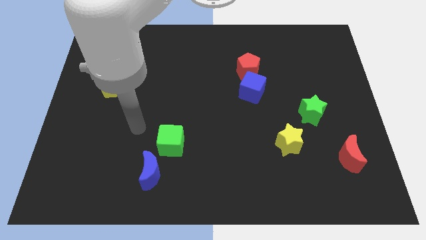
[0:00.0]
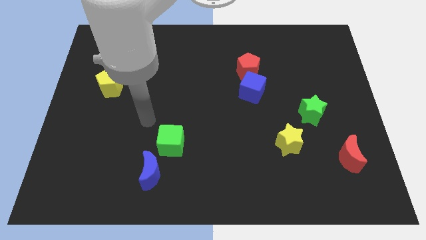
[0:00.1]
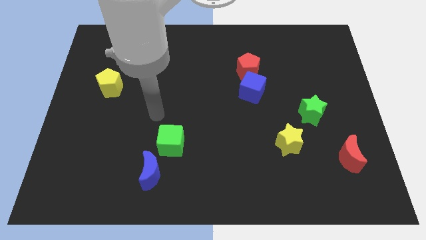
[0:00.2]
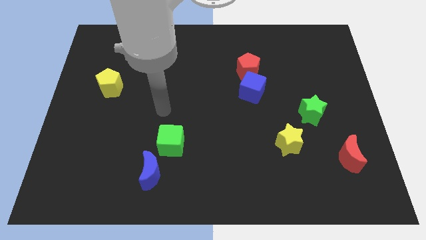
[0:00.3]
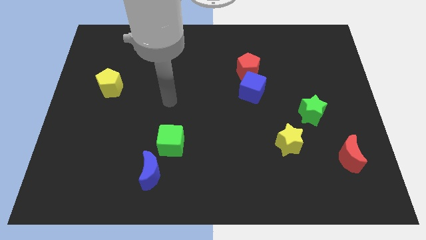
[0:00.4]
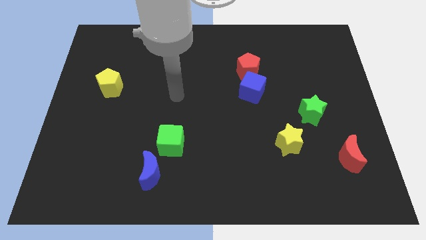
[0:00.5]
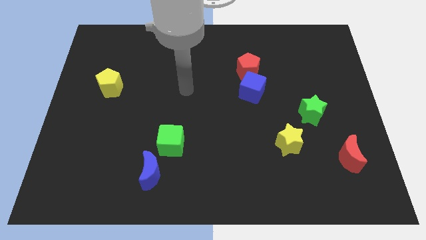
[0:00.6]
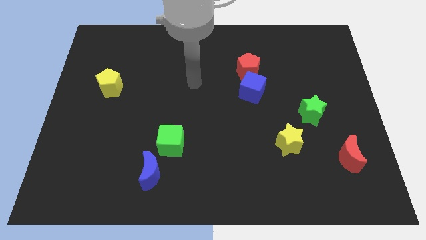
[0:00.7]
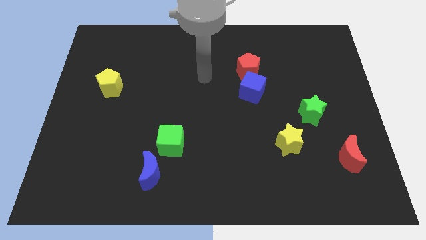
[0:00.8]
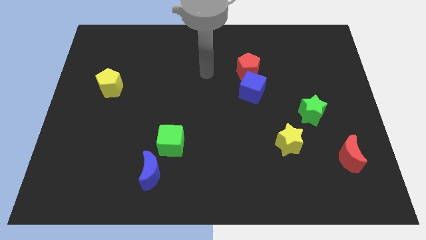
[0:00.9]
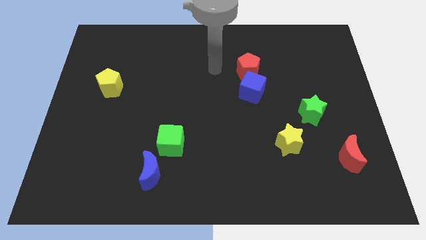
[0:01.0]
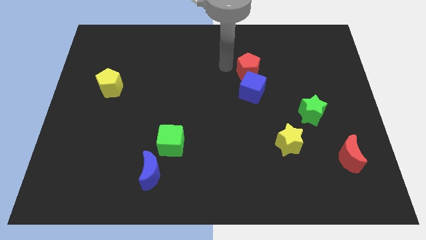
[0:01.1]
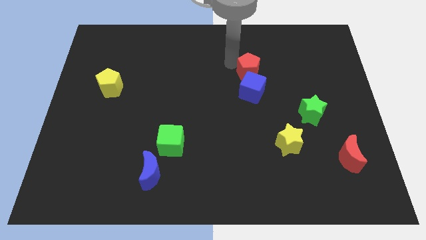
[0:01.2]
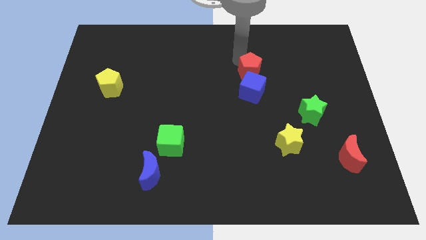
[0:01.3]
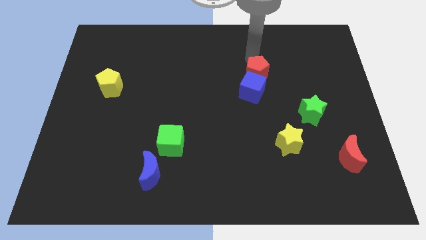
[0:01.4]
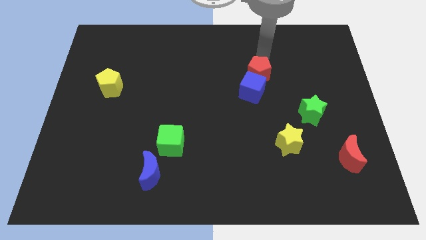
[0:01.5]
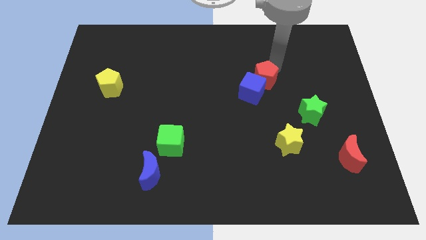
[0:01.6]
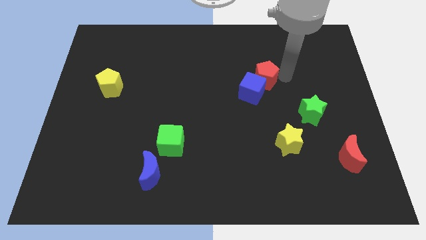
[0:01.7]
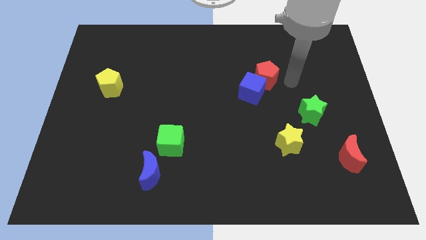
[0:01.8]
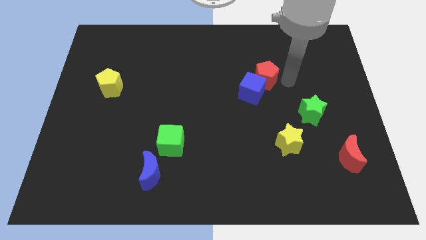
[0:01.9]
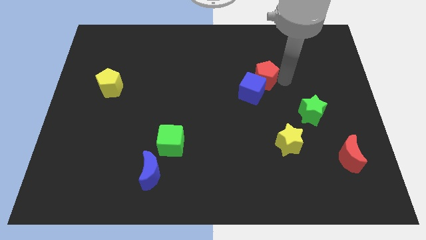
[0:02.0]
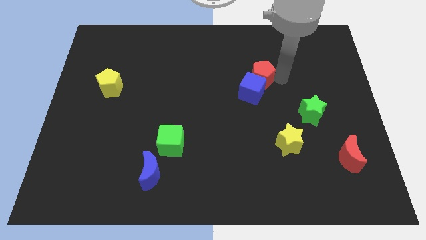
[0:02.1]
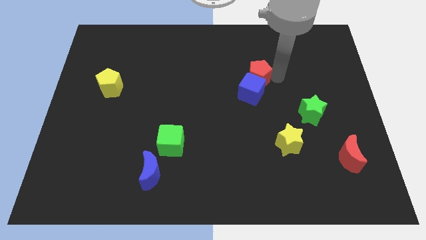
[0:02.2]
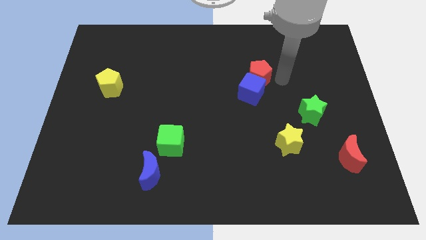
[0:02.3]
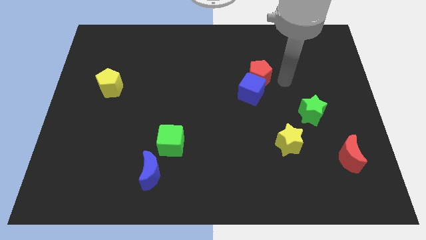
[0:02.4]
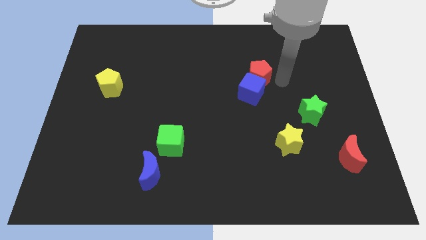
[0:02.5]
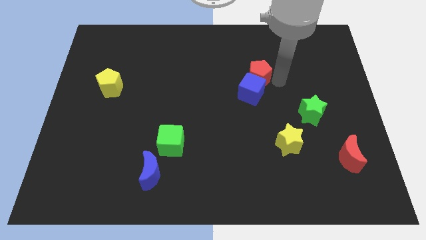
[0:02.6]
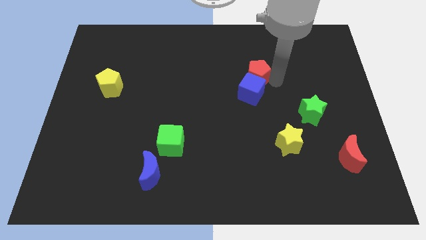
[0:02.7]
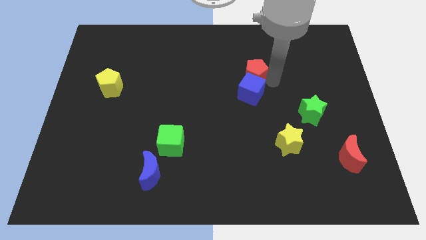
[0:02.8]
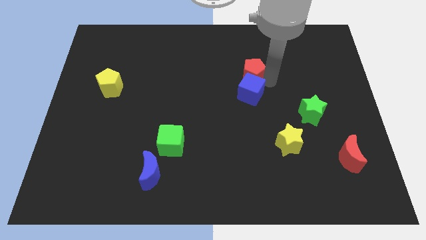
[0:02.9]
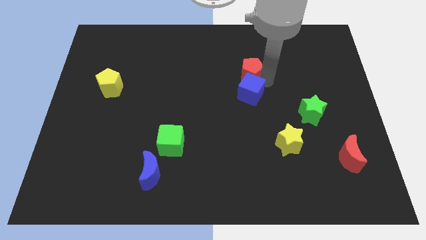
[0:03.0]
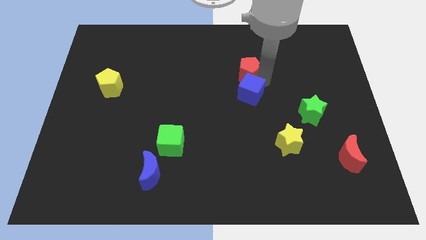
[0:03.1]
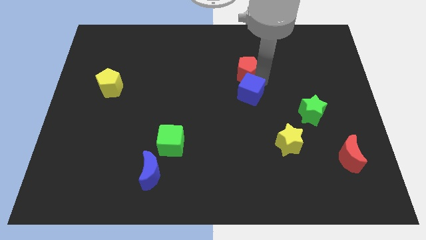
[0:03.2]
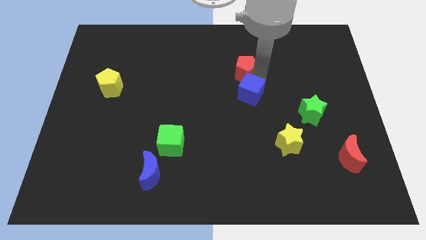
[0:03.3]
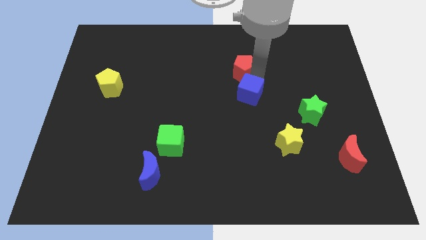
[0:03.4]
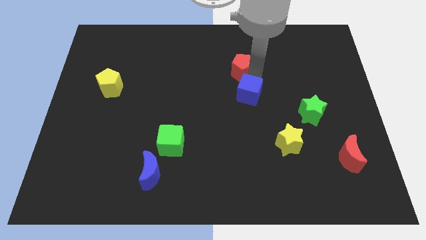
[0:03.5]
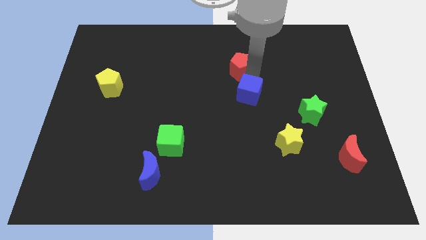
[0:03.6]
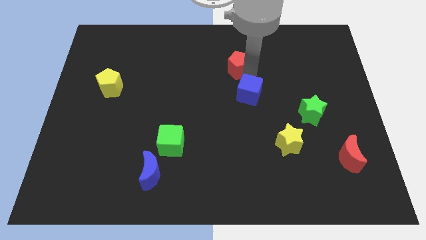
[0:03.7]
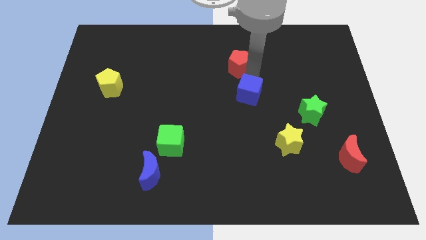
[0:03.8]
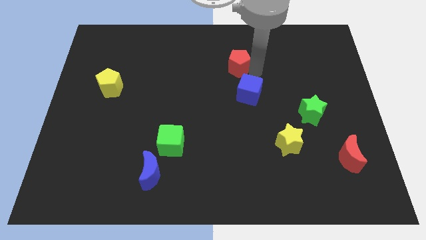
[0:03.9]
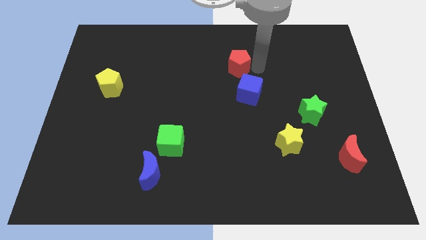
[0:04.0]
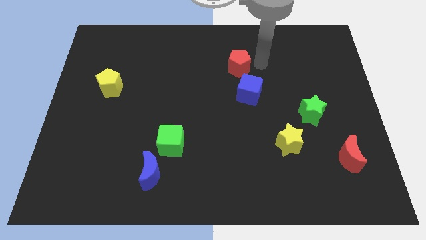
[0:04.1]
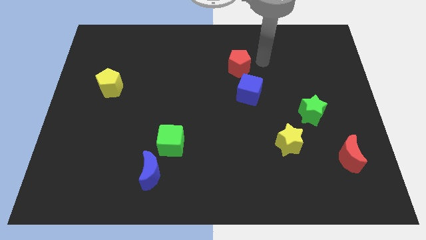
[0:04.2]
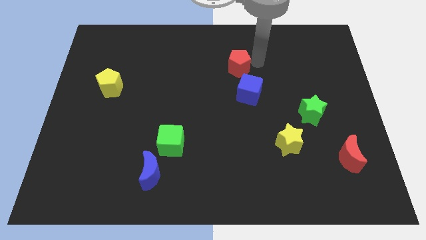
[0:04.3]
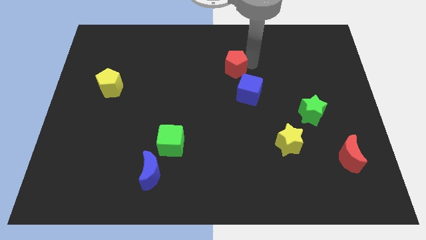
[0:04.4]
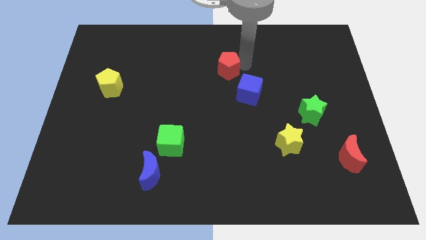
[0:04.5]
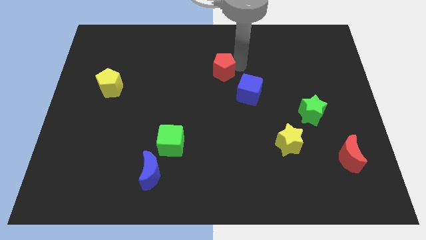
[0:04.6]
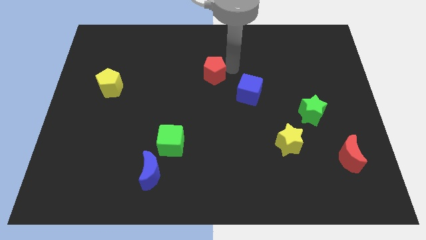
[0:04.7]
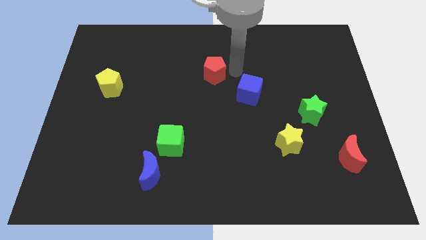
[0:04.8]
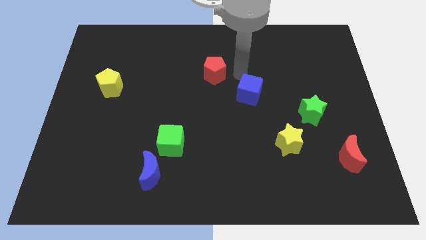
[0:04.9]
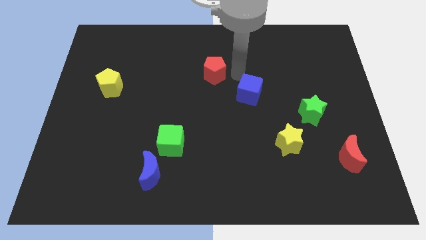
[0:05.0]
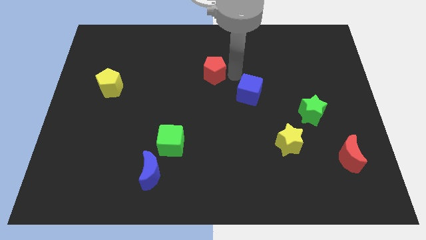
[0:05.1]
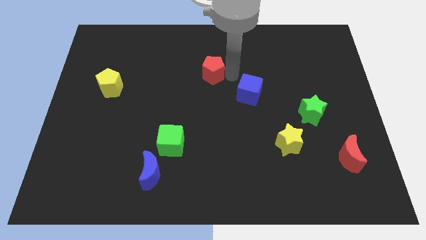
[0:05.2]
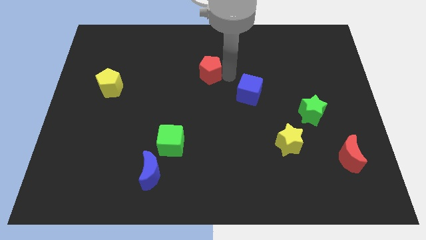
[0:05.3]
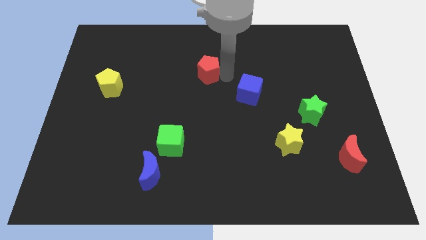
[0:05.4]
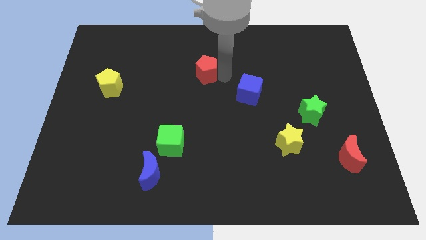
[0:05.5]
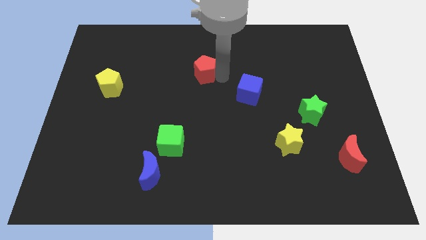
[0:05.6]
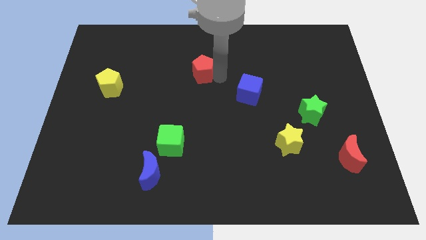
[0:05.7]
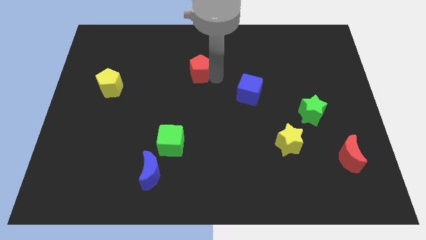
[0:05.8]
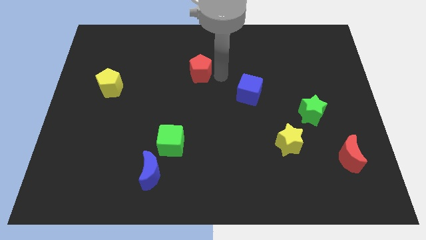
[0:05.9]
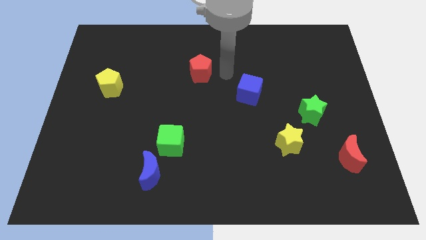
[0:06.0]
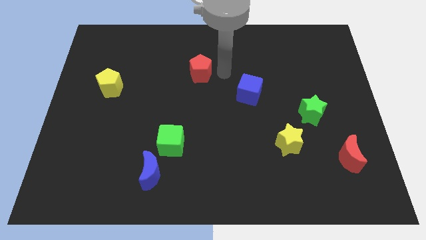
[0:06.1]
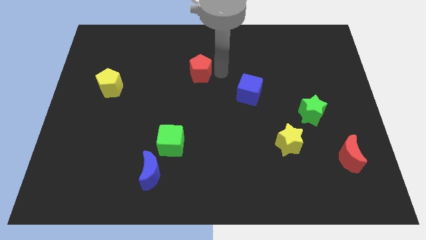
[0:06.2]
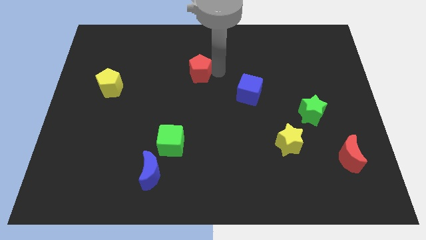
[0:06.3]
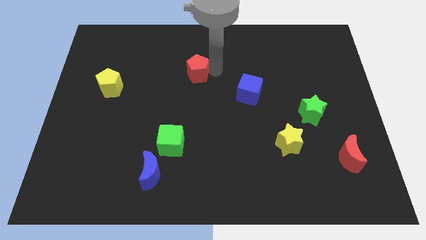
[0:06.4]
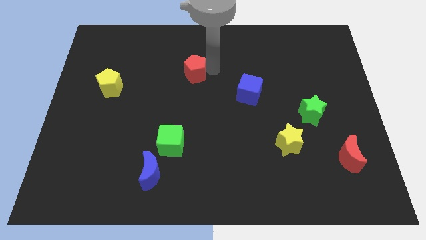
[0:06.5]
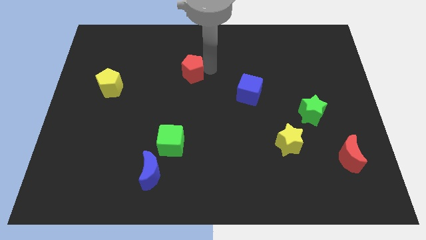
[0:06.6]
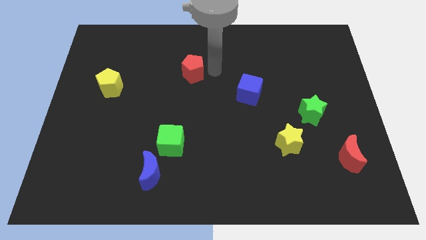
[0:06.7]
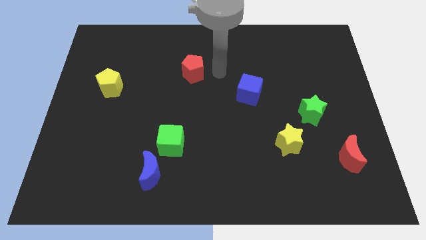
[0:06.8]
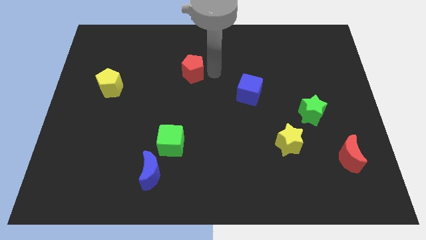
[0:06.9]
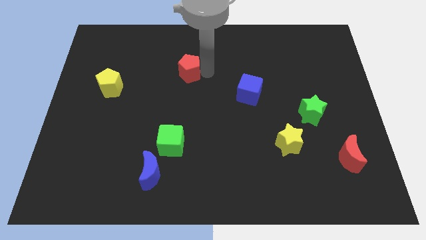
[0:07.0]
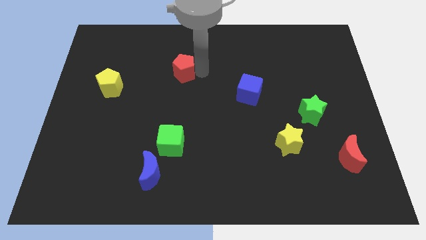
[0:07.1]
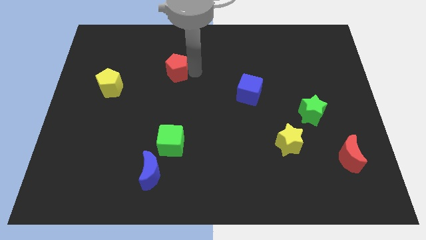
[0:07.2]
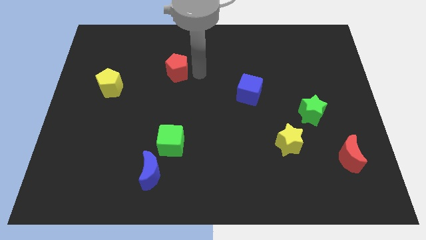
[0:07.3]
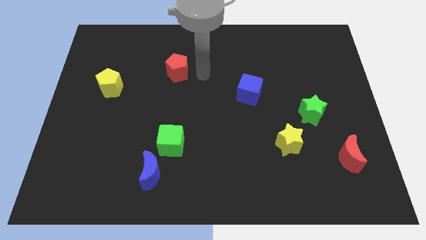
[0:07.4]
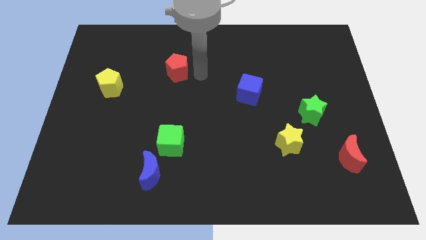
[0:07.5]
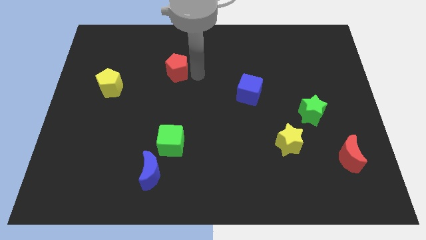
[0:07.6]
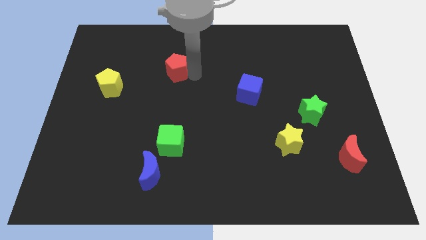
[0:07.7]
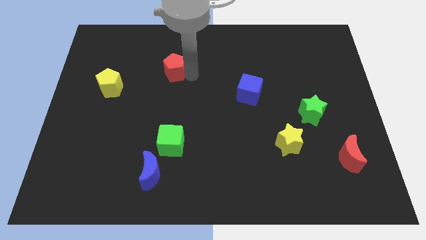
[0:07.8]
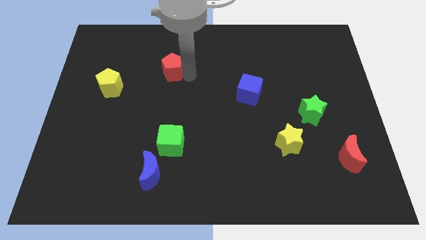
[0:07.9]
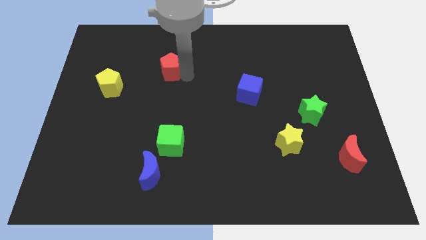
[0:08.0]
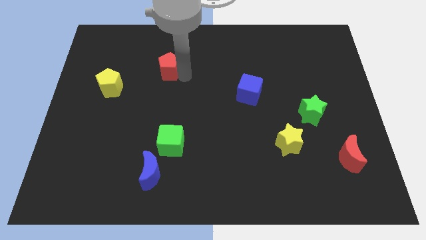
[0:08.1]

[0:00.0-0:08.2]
move the red pentagon to the left
